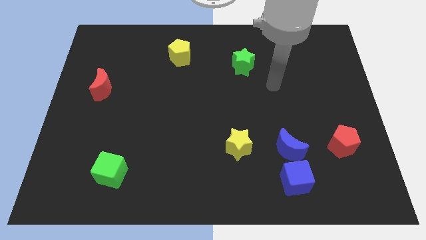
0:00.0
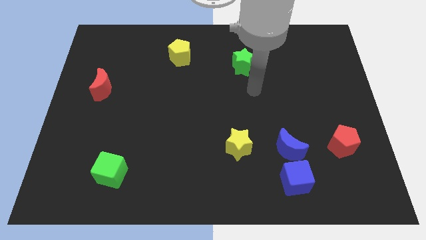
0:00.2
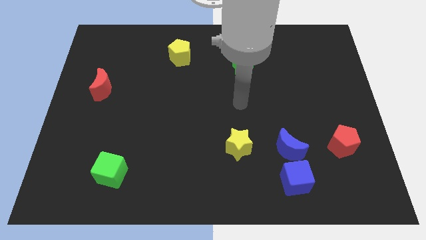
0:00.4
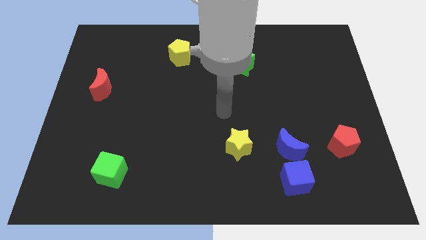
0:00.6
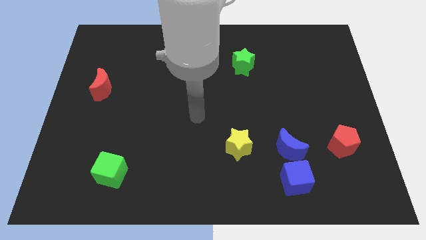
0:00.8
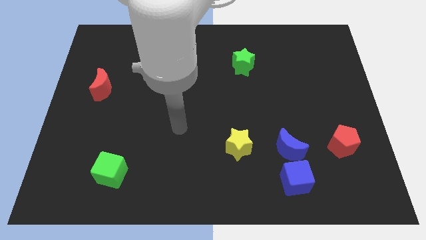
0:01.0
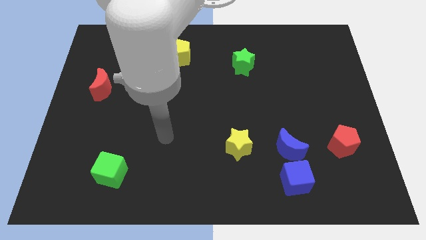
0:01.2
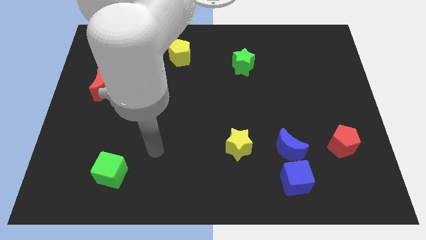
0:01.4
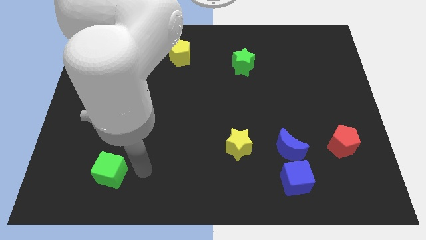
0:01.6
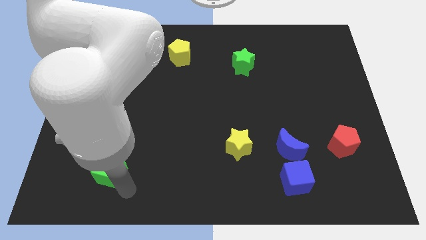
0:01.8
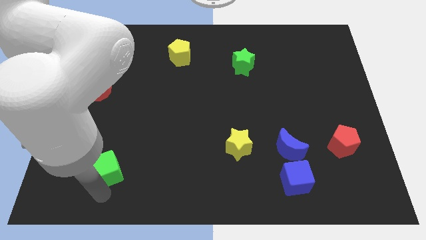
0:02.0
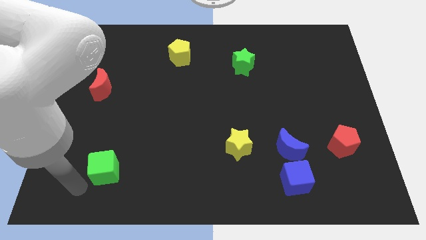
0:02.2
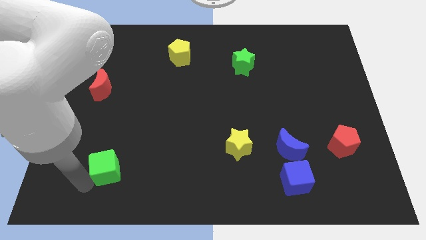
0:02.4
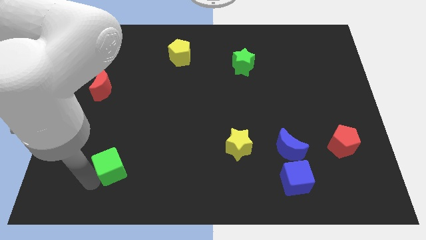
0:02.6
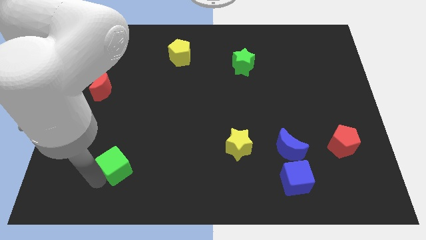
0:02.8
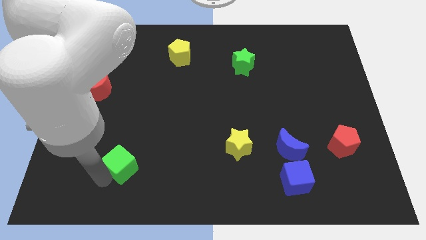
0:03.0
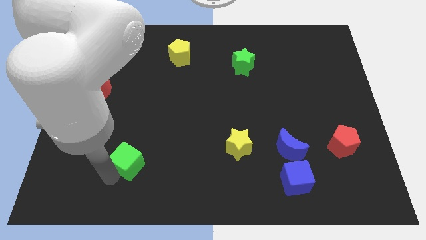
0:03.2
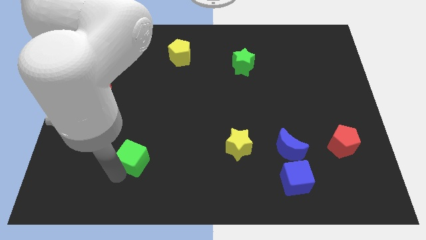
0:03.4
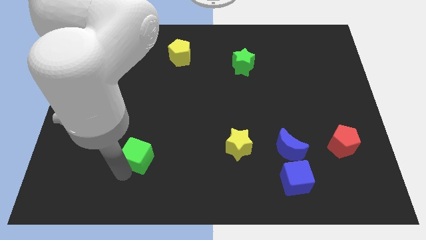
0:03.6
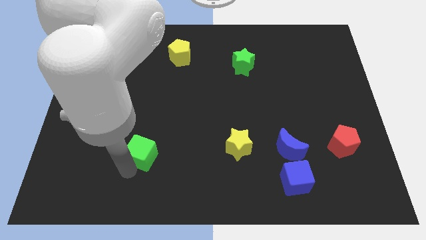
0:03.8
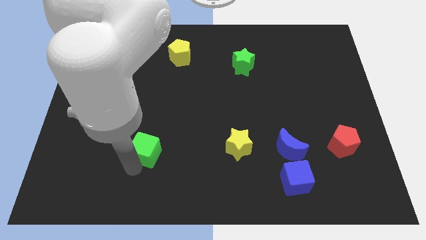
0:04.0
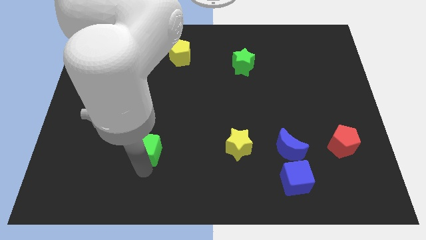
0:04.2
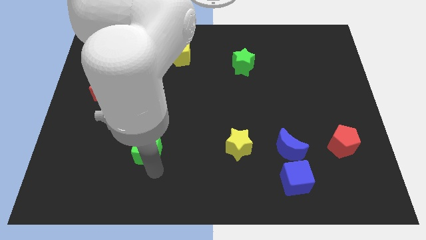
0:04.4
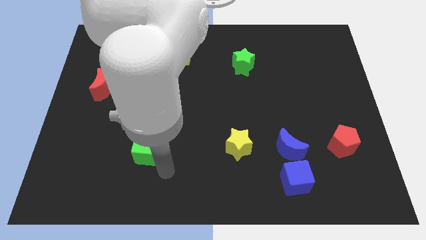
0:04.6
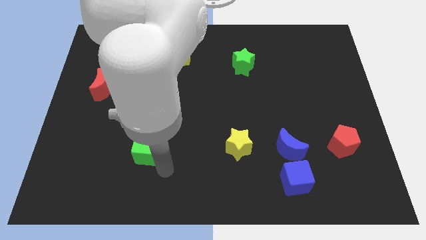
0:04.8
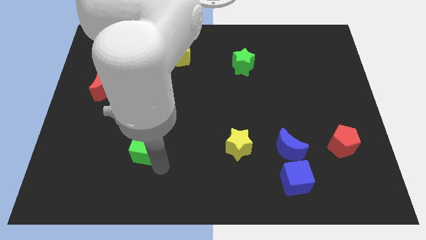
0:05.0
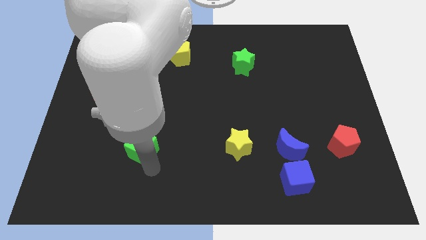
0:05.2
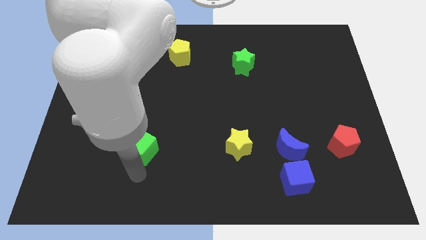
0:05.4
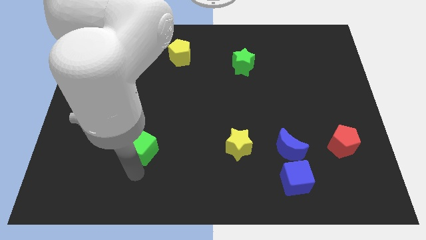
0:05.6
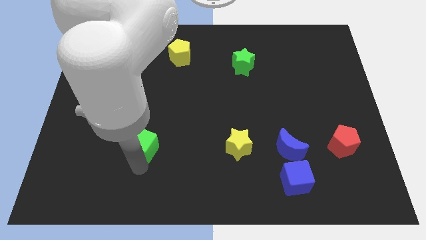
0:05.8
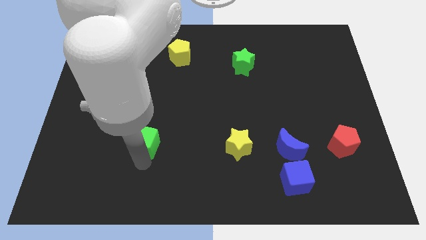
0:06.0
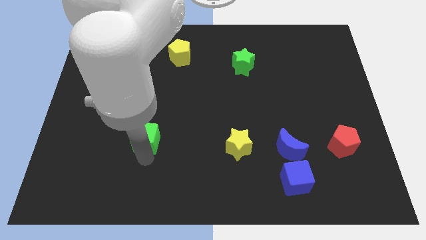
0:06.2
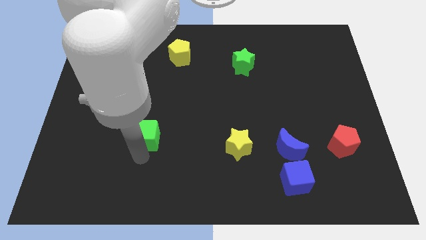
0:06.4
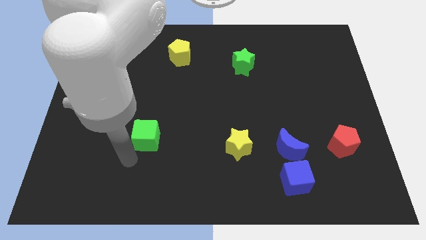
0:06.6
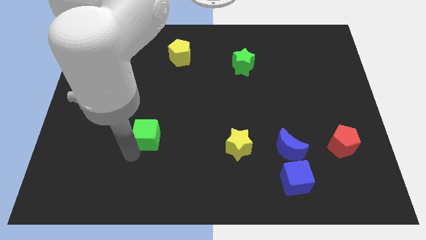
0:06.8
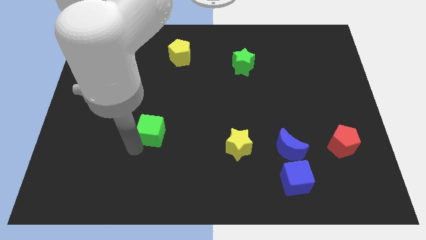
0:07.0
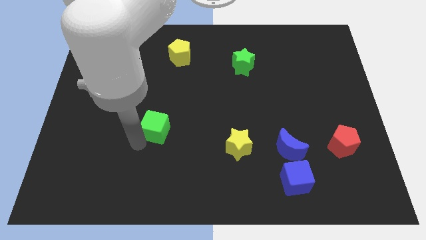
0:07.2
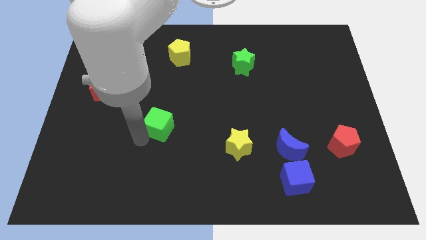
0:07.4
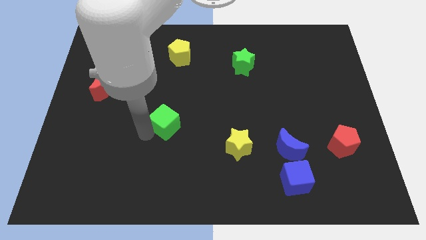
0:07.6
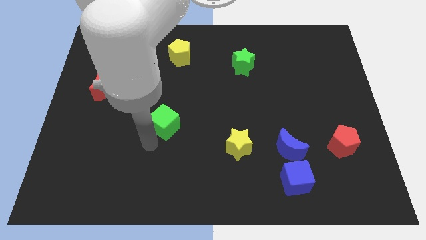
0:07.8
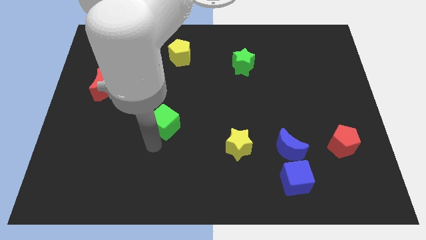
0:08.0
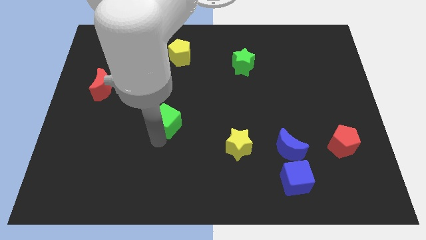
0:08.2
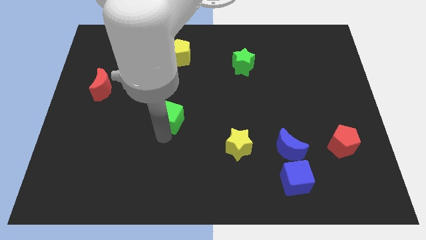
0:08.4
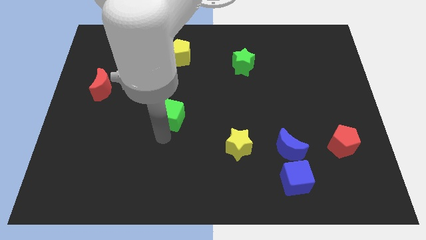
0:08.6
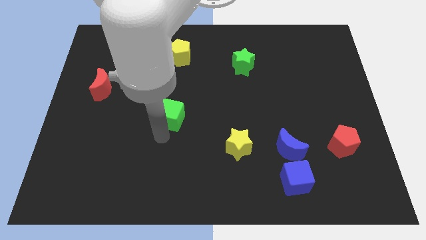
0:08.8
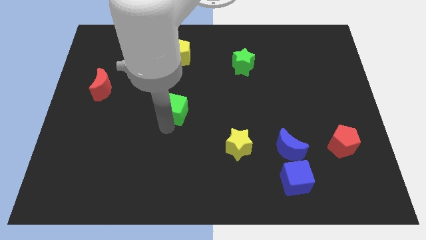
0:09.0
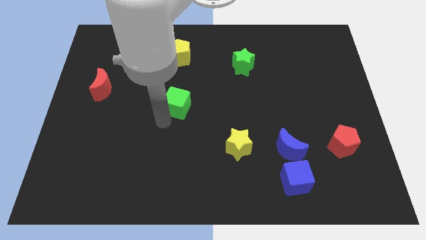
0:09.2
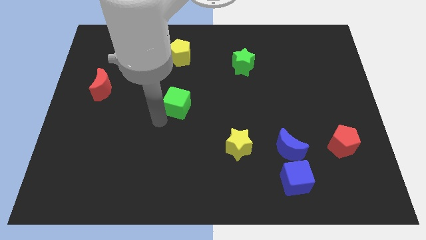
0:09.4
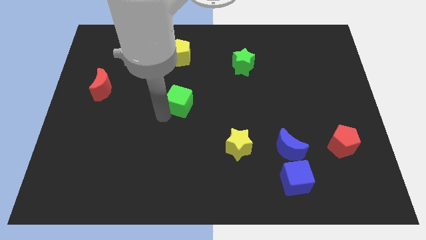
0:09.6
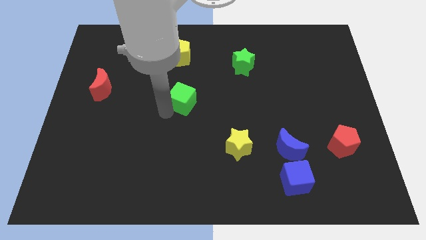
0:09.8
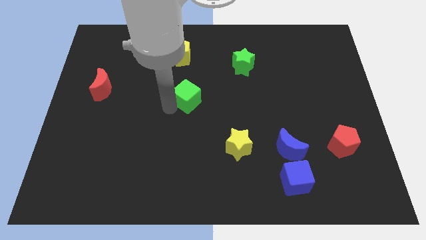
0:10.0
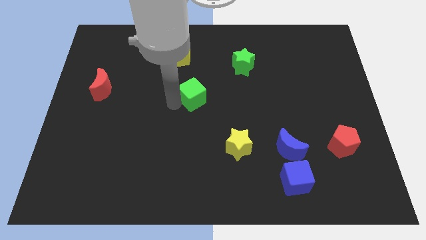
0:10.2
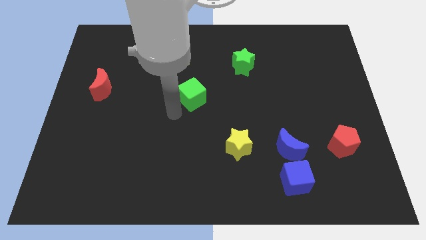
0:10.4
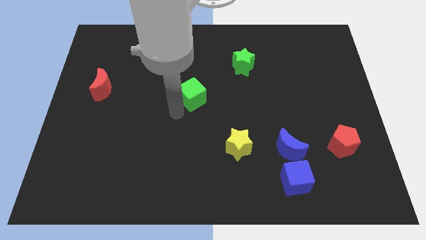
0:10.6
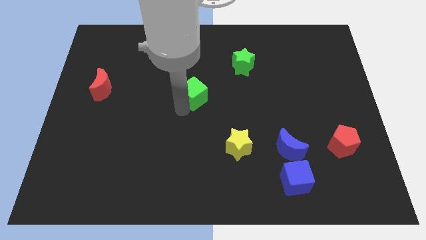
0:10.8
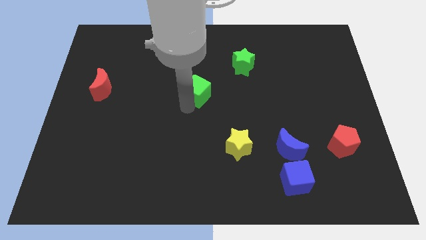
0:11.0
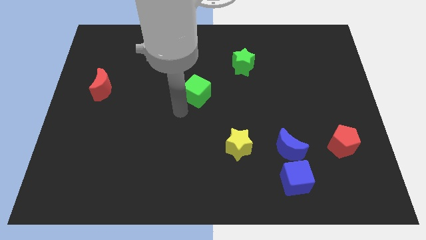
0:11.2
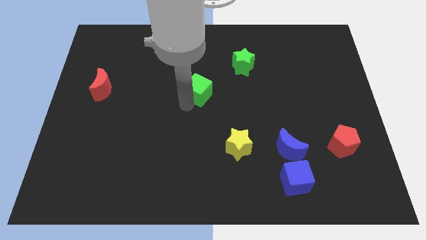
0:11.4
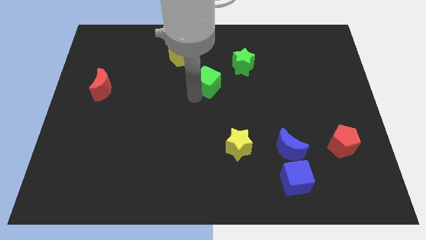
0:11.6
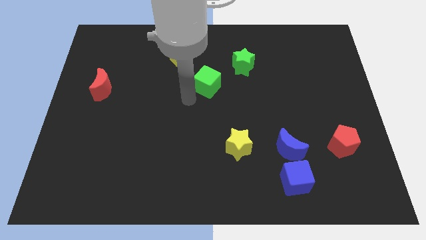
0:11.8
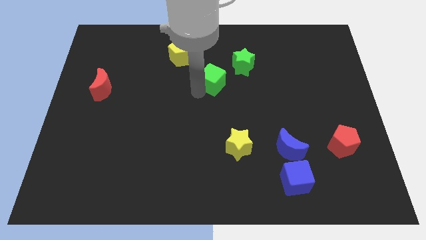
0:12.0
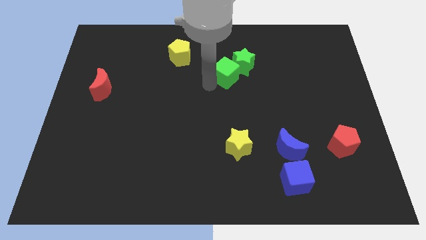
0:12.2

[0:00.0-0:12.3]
slide the green cube to the green star
